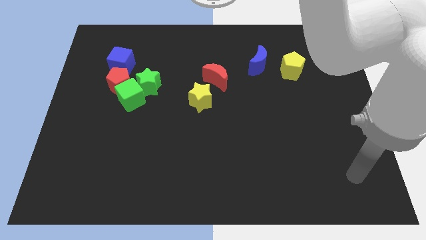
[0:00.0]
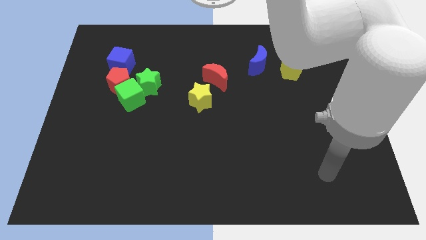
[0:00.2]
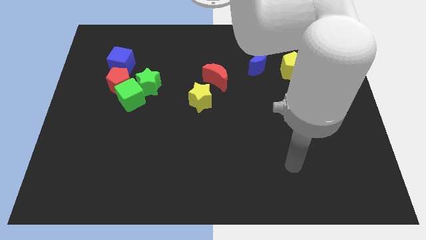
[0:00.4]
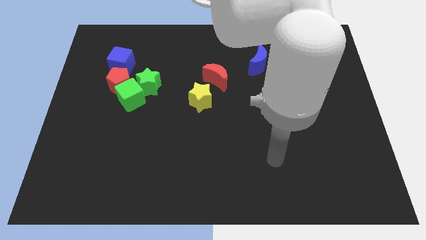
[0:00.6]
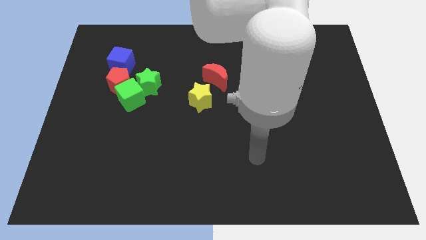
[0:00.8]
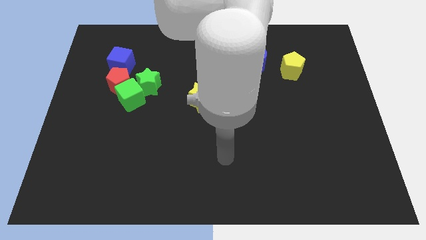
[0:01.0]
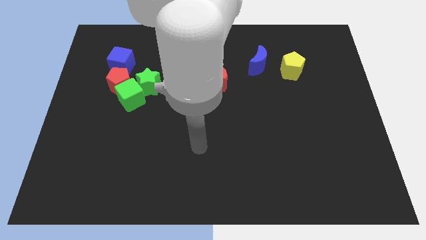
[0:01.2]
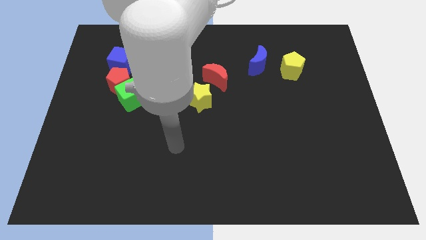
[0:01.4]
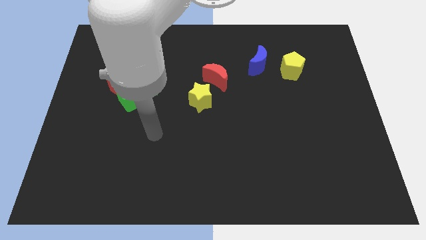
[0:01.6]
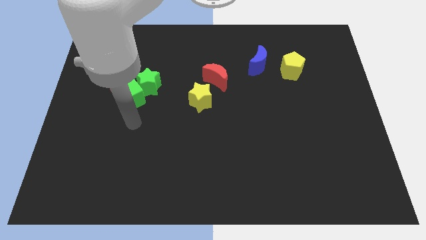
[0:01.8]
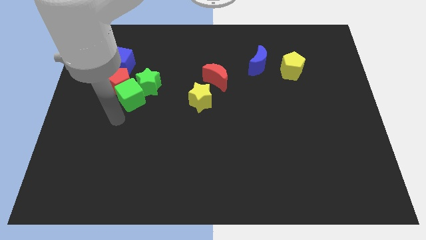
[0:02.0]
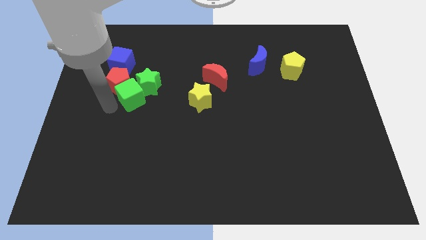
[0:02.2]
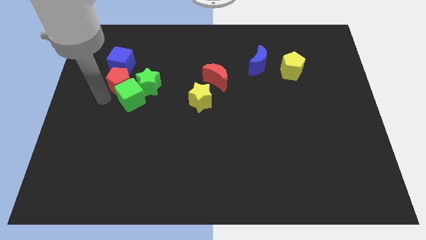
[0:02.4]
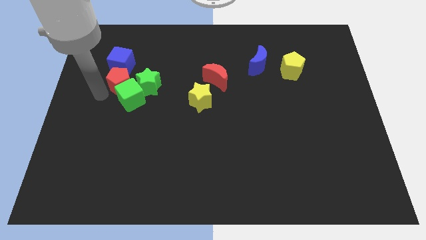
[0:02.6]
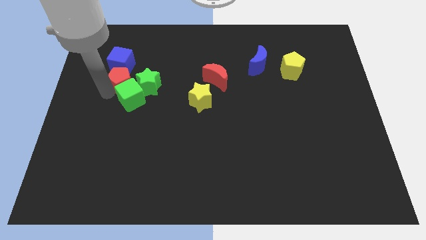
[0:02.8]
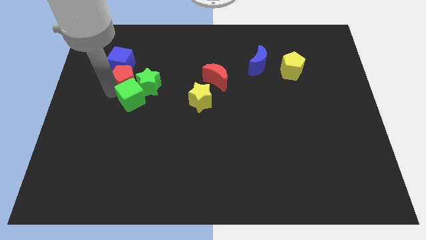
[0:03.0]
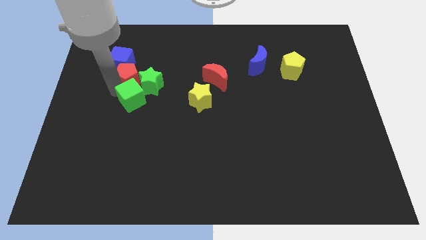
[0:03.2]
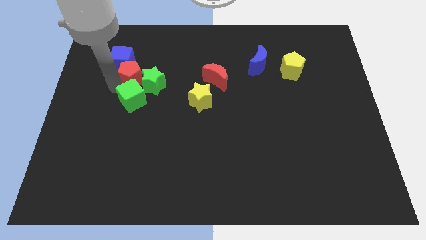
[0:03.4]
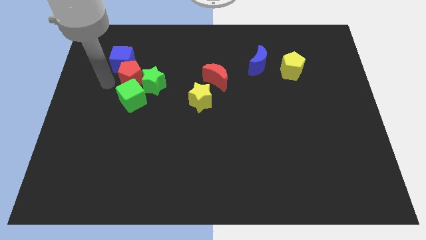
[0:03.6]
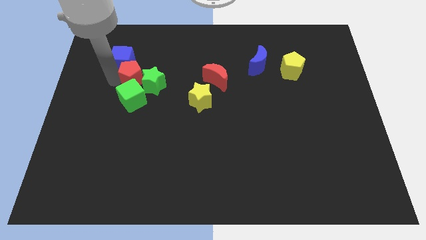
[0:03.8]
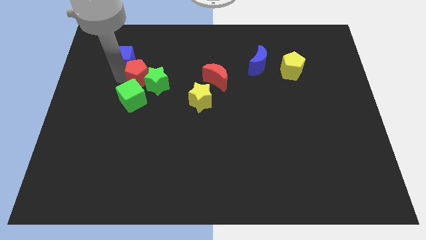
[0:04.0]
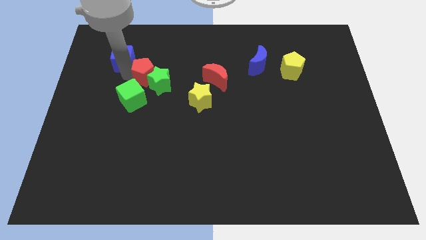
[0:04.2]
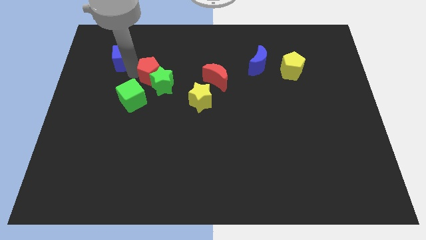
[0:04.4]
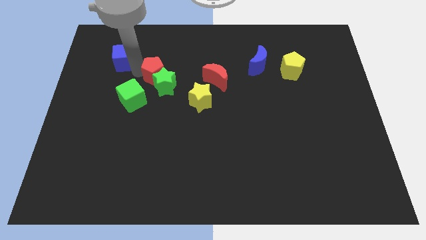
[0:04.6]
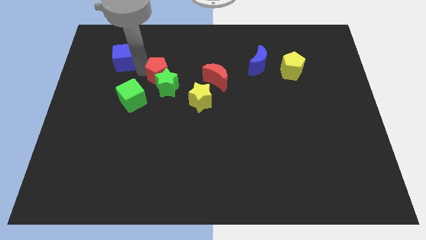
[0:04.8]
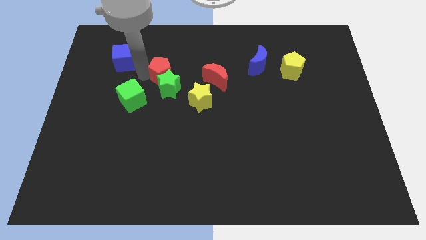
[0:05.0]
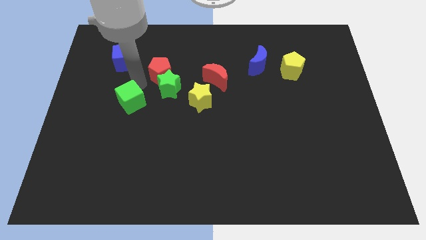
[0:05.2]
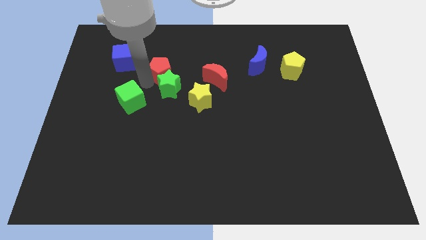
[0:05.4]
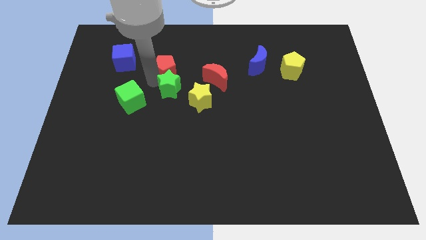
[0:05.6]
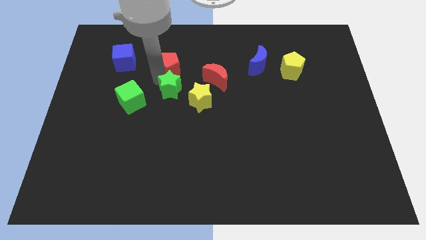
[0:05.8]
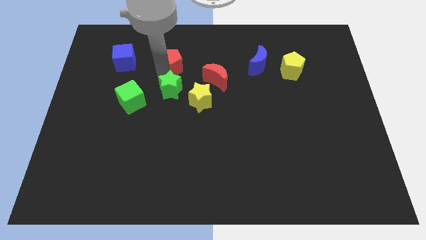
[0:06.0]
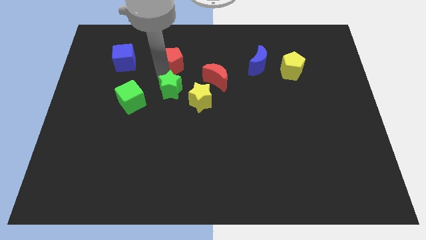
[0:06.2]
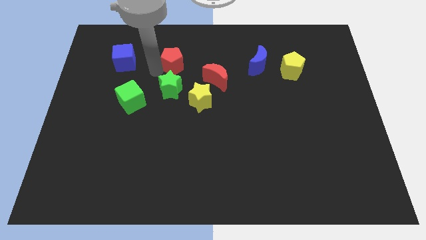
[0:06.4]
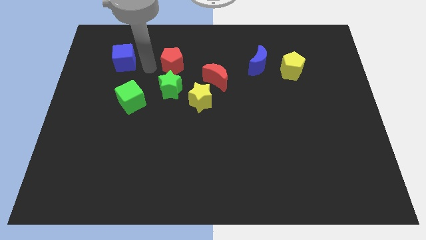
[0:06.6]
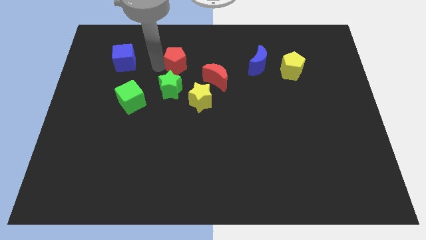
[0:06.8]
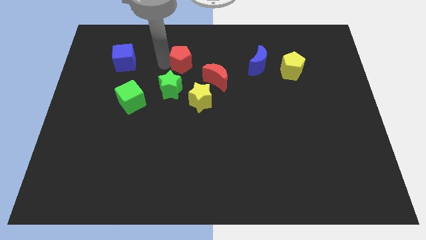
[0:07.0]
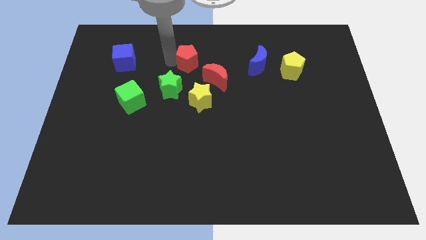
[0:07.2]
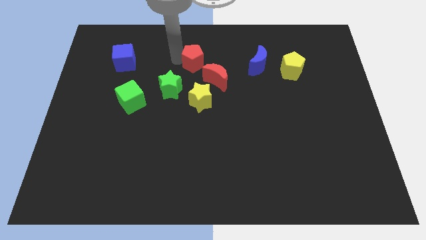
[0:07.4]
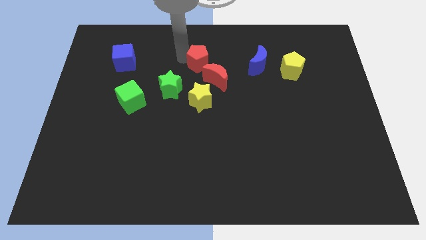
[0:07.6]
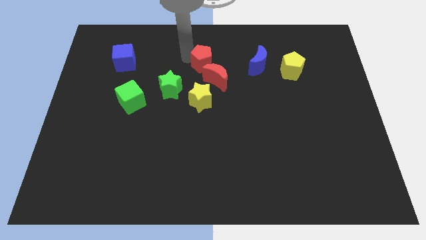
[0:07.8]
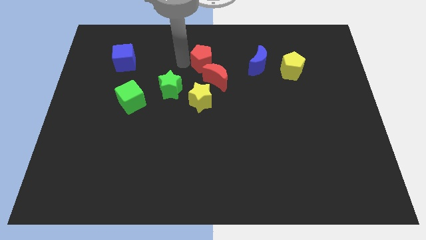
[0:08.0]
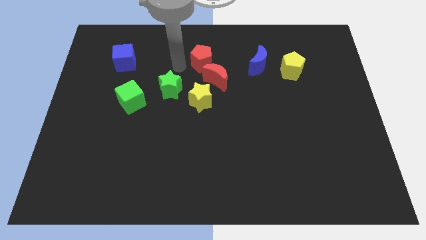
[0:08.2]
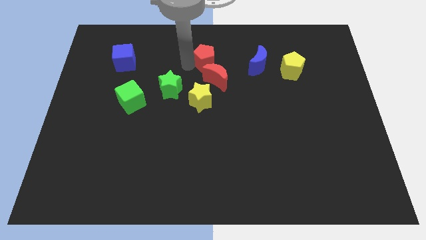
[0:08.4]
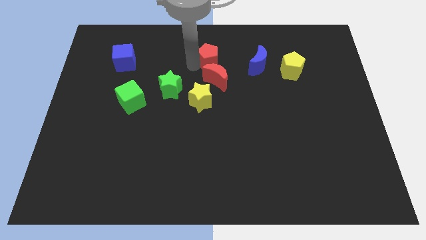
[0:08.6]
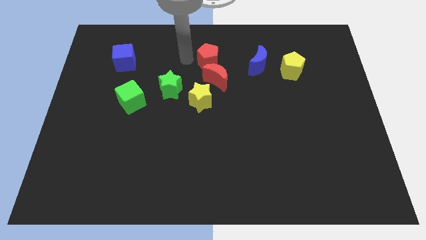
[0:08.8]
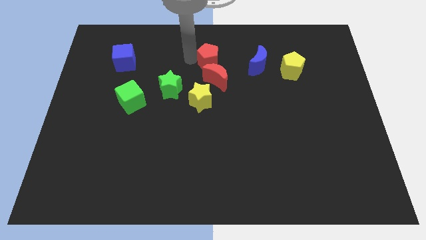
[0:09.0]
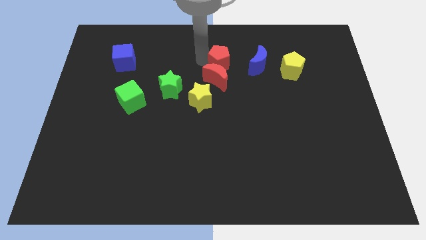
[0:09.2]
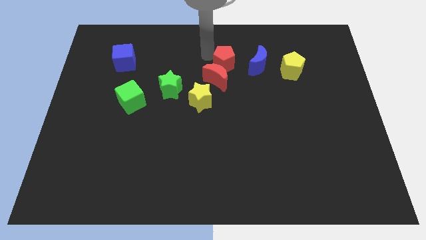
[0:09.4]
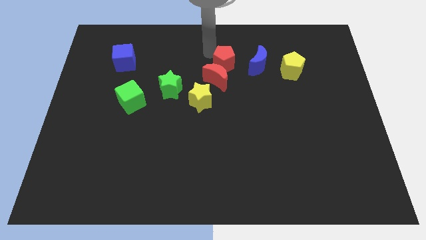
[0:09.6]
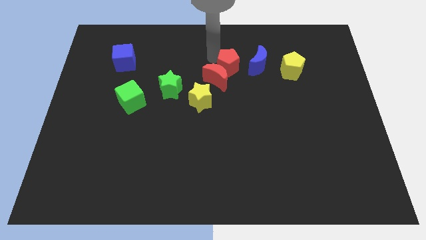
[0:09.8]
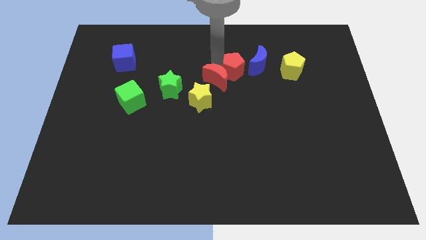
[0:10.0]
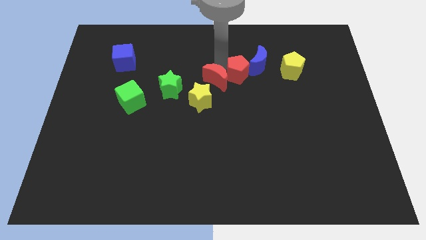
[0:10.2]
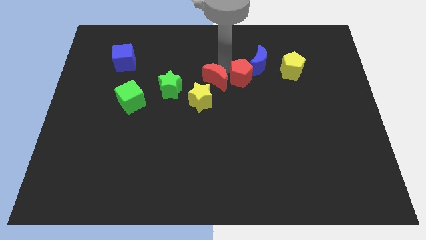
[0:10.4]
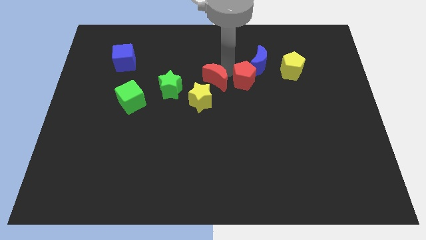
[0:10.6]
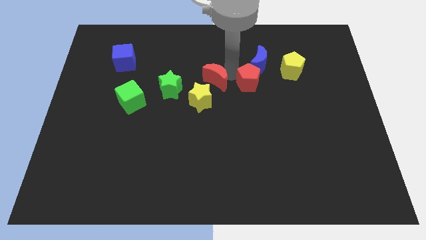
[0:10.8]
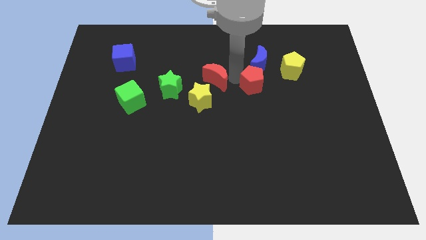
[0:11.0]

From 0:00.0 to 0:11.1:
put the red pentagon to the bottom left of the yellow pentagon

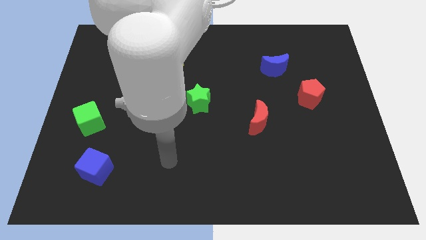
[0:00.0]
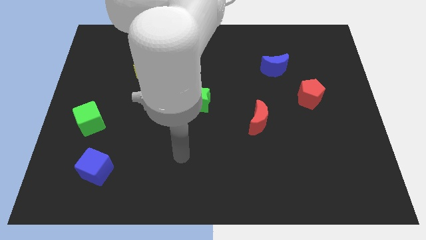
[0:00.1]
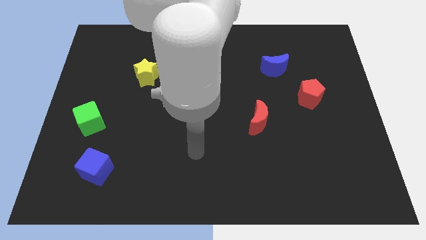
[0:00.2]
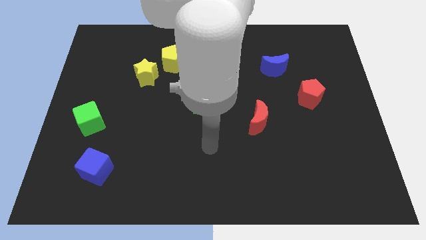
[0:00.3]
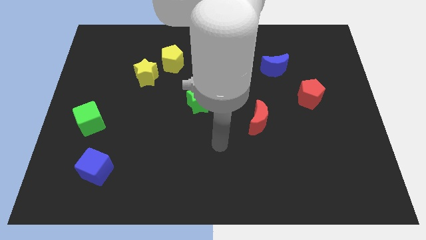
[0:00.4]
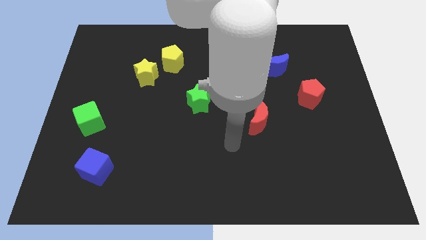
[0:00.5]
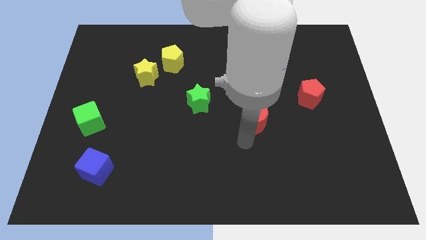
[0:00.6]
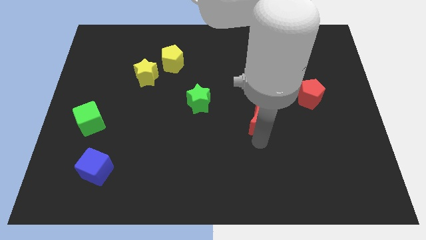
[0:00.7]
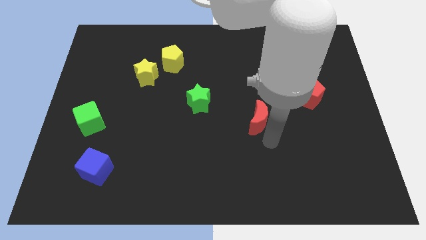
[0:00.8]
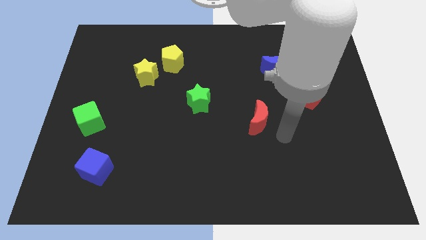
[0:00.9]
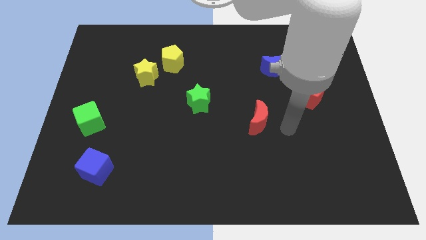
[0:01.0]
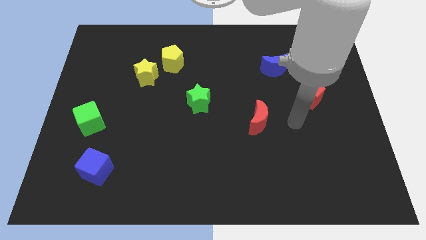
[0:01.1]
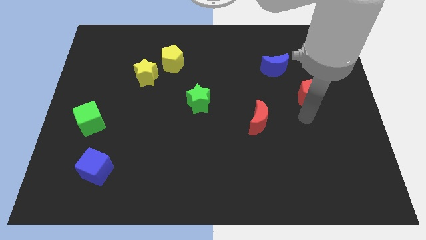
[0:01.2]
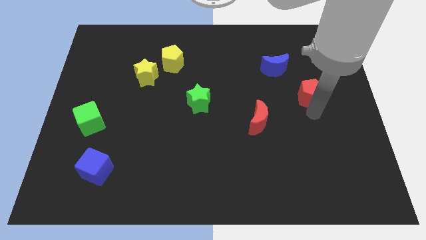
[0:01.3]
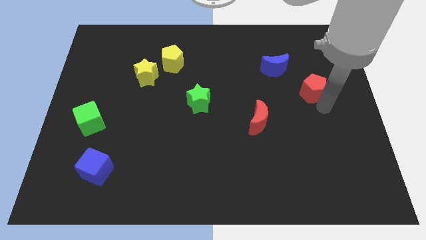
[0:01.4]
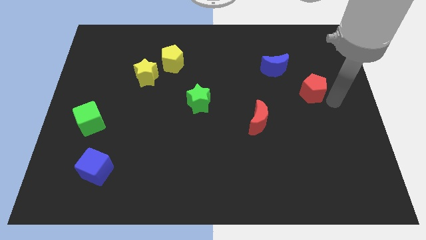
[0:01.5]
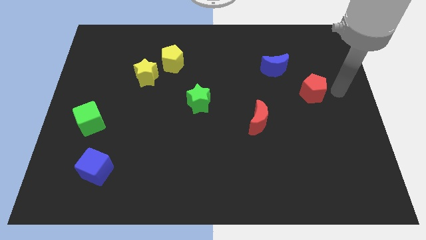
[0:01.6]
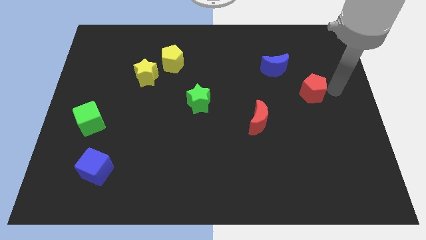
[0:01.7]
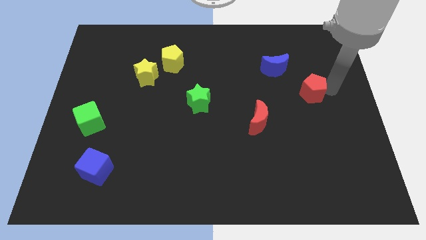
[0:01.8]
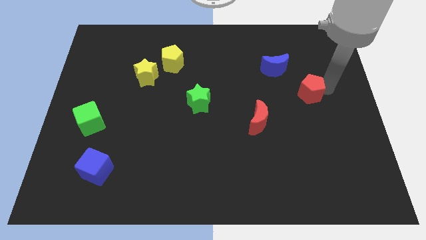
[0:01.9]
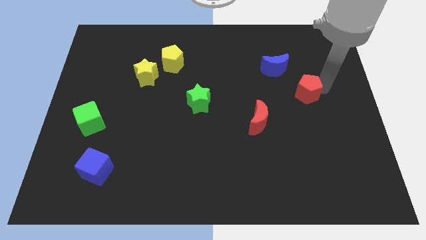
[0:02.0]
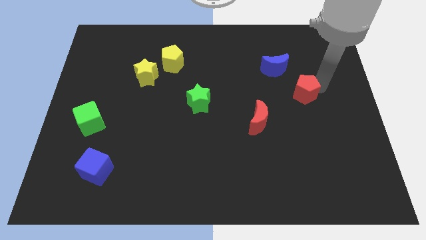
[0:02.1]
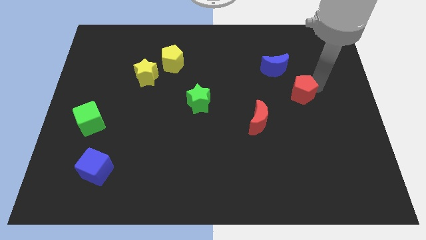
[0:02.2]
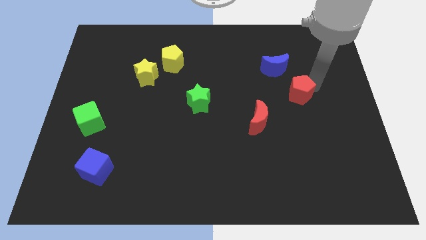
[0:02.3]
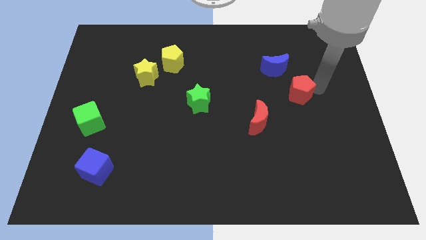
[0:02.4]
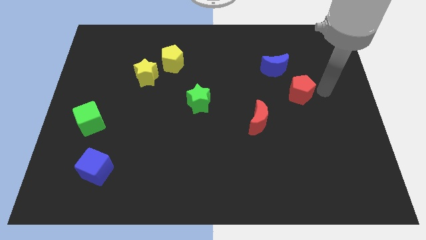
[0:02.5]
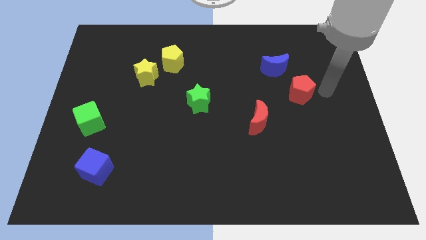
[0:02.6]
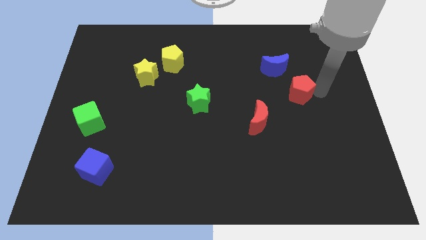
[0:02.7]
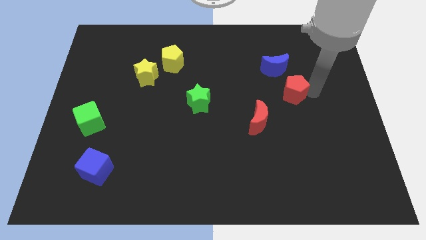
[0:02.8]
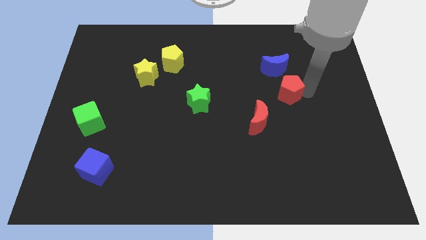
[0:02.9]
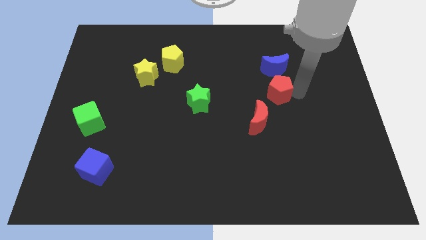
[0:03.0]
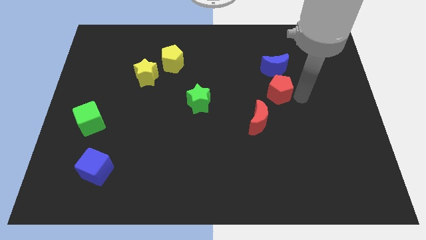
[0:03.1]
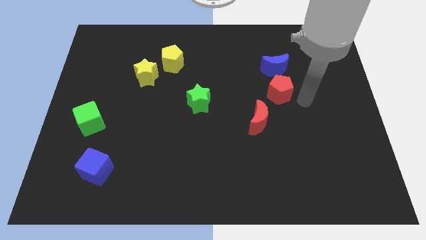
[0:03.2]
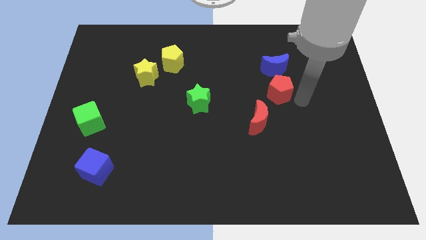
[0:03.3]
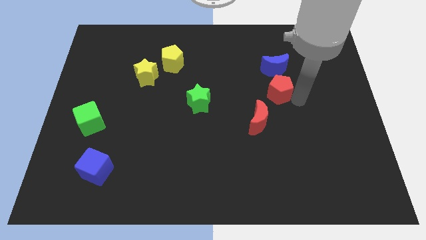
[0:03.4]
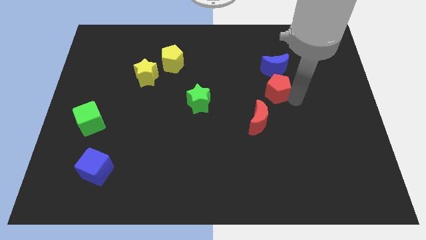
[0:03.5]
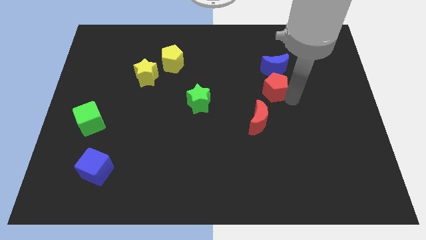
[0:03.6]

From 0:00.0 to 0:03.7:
push the red pentagon to the bottom left of the blue moon
